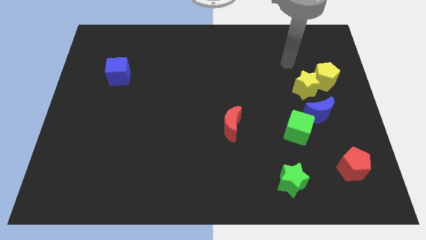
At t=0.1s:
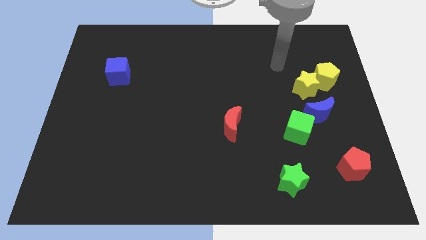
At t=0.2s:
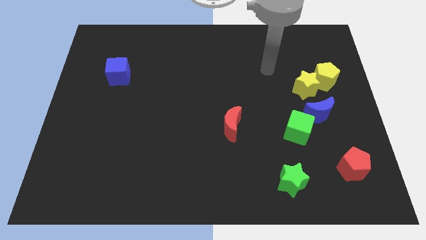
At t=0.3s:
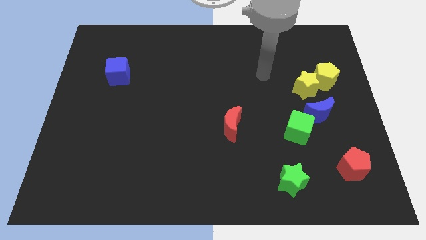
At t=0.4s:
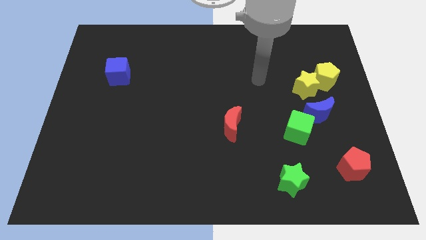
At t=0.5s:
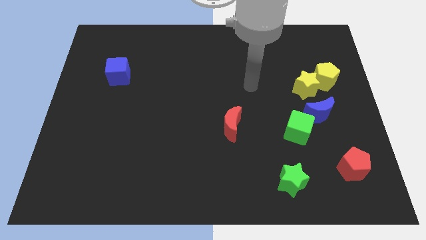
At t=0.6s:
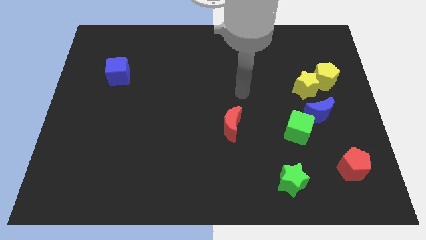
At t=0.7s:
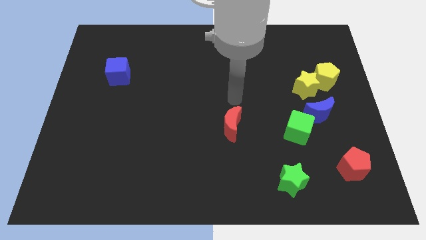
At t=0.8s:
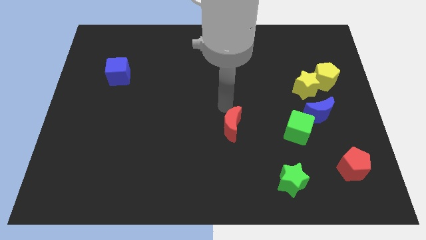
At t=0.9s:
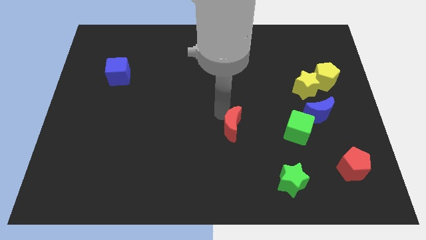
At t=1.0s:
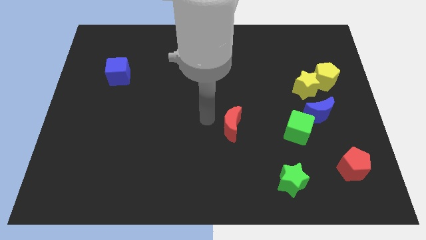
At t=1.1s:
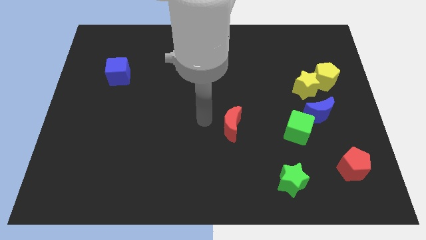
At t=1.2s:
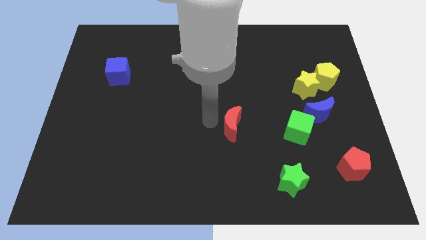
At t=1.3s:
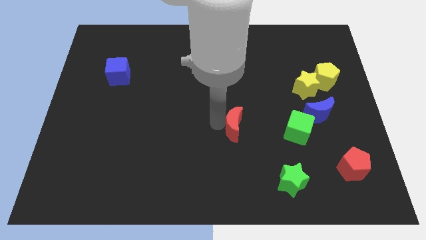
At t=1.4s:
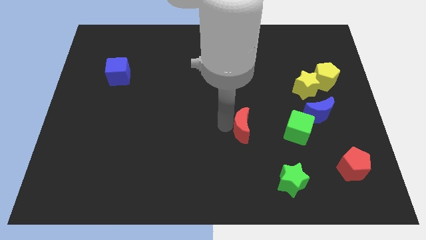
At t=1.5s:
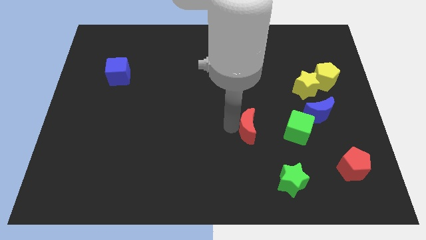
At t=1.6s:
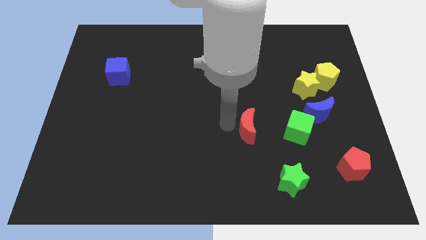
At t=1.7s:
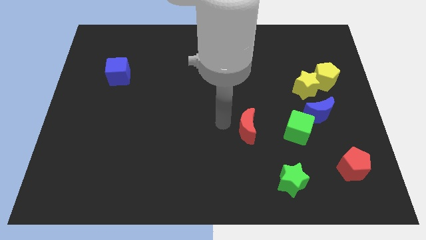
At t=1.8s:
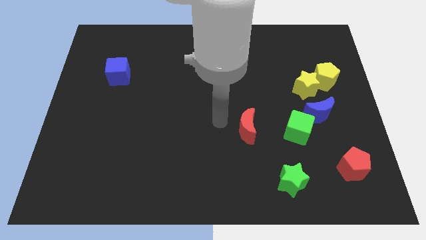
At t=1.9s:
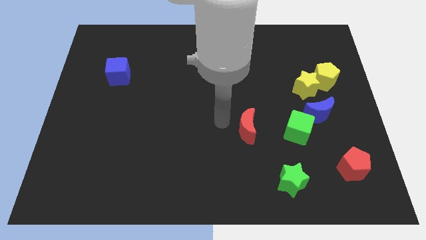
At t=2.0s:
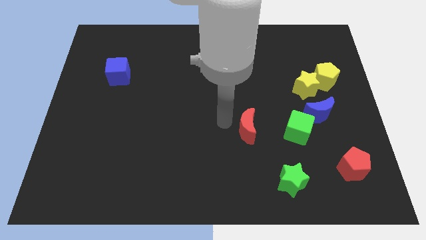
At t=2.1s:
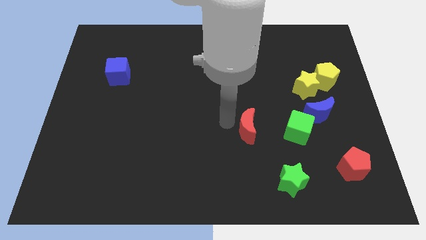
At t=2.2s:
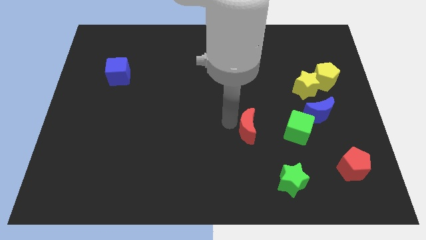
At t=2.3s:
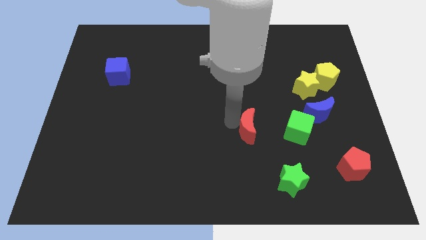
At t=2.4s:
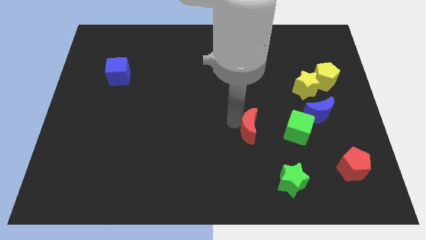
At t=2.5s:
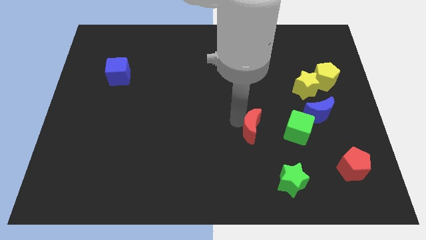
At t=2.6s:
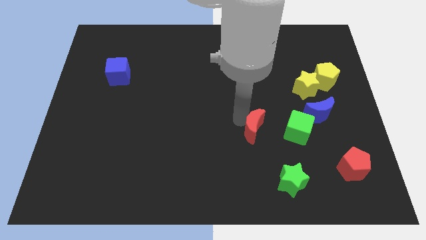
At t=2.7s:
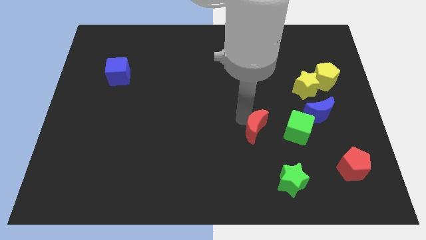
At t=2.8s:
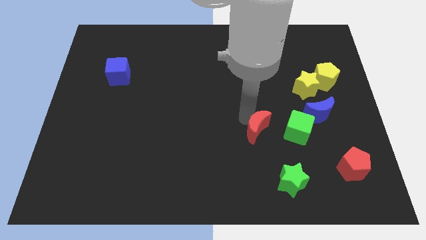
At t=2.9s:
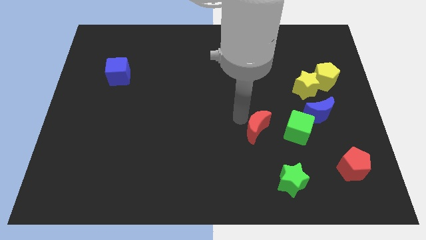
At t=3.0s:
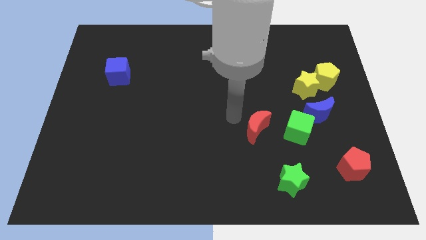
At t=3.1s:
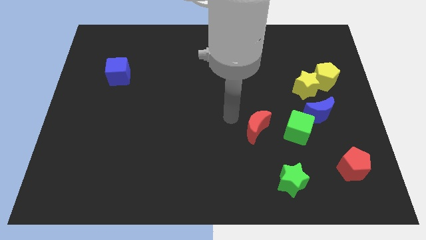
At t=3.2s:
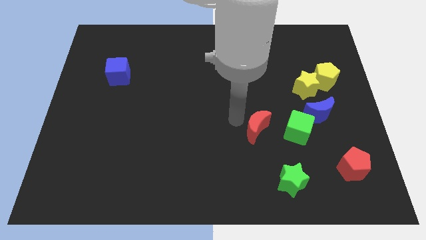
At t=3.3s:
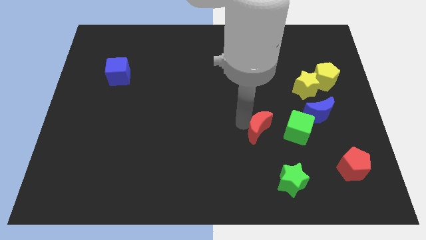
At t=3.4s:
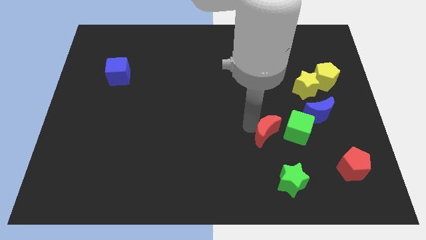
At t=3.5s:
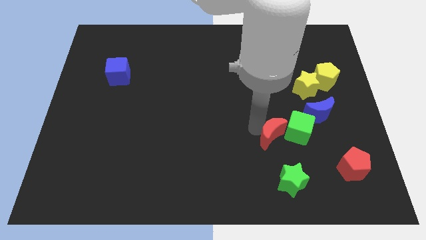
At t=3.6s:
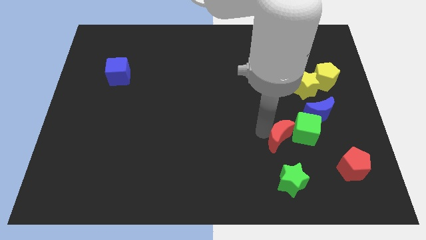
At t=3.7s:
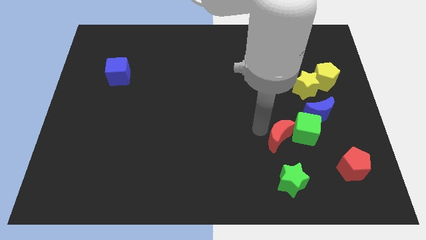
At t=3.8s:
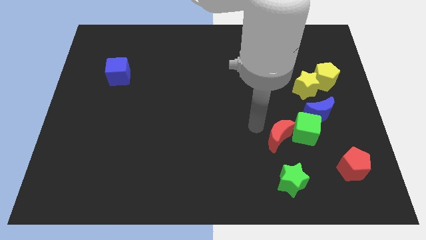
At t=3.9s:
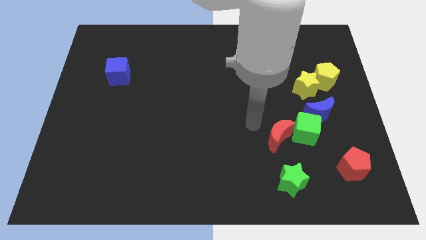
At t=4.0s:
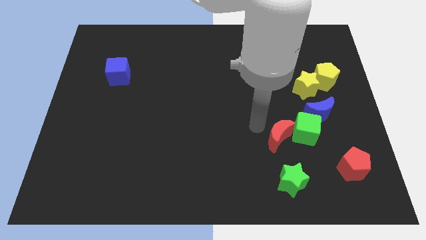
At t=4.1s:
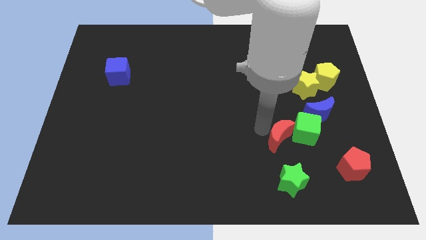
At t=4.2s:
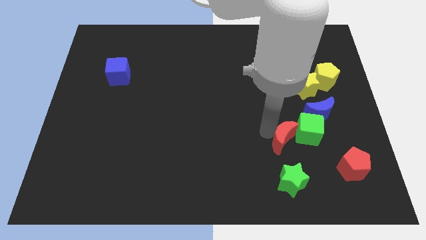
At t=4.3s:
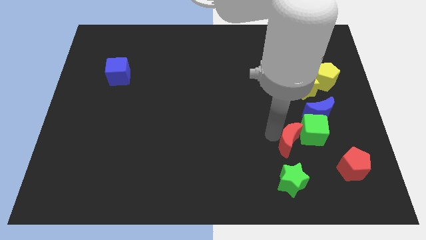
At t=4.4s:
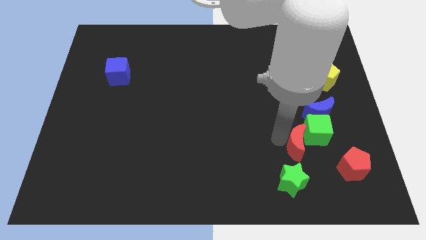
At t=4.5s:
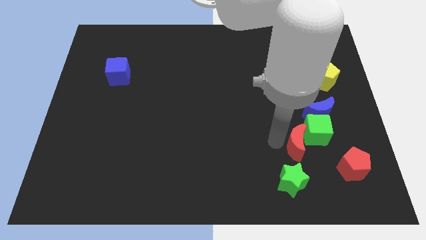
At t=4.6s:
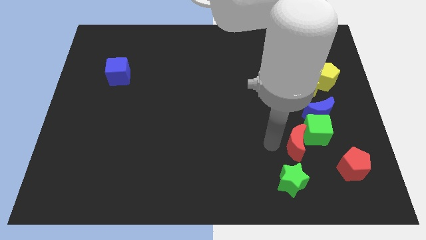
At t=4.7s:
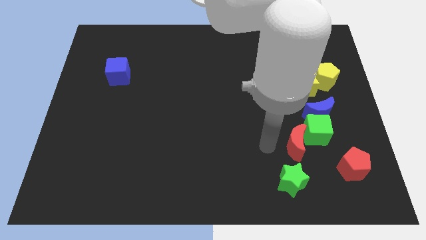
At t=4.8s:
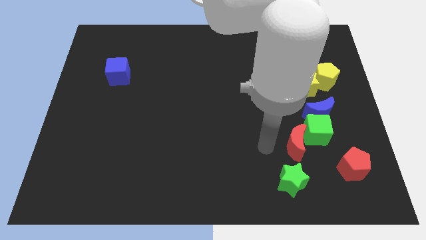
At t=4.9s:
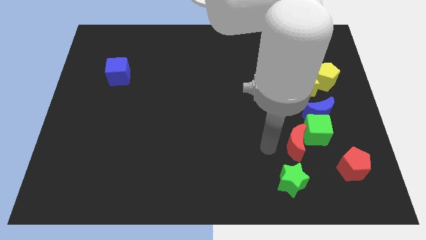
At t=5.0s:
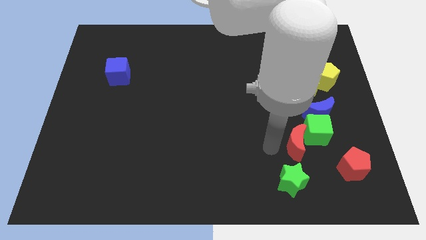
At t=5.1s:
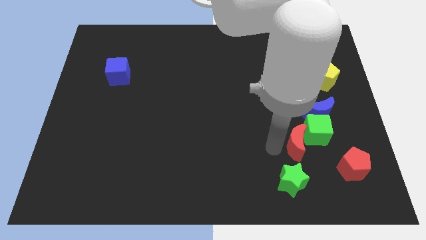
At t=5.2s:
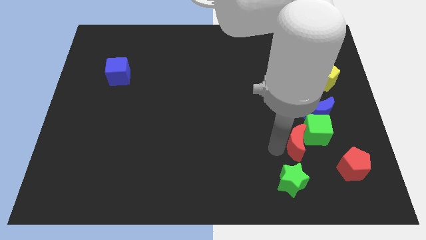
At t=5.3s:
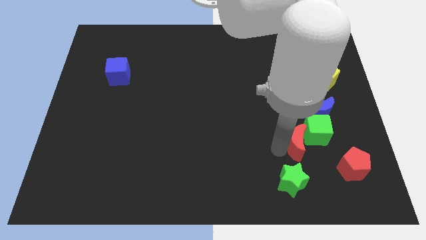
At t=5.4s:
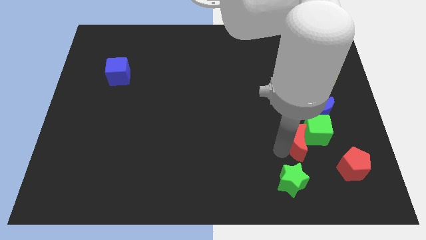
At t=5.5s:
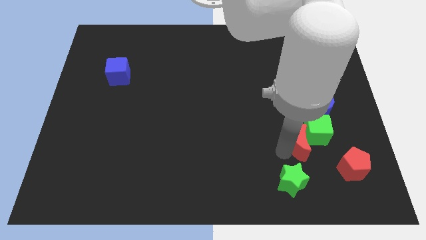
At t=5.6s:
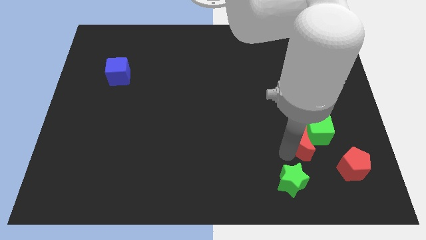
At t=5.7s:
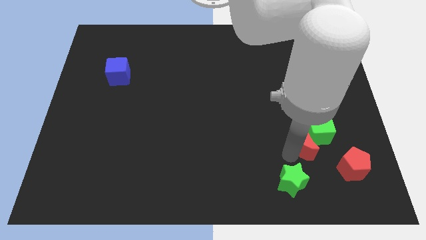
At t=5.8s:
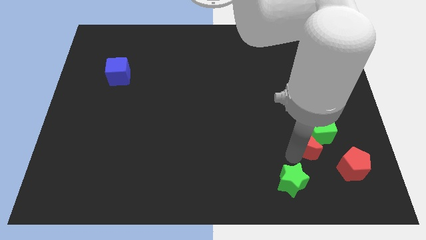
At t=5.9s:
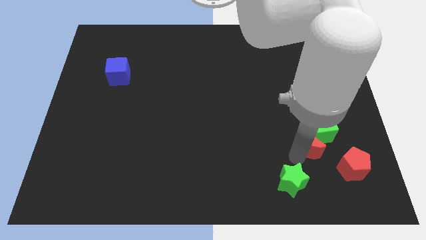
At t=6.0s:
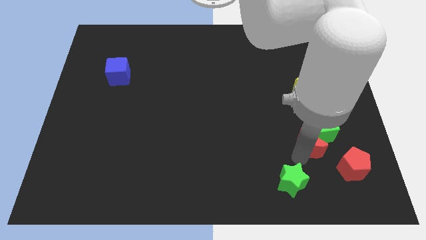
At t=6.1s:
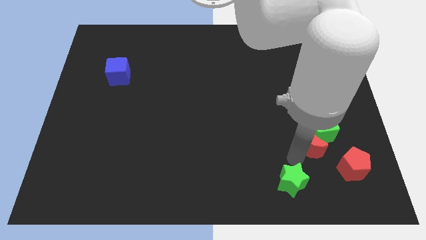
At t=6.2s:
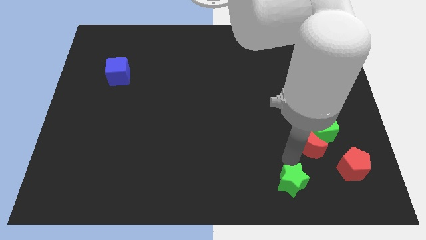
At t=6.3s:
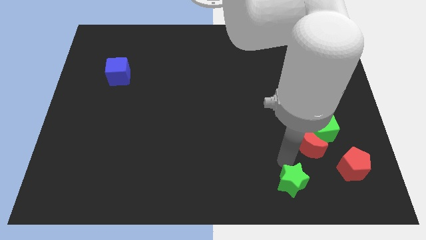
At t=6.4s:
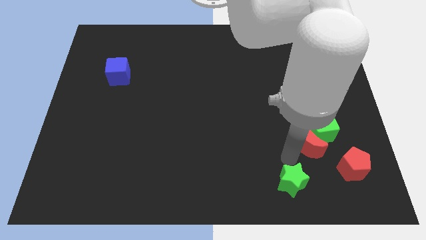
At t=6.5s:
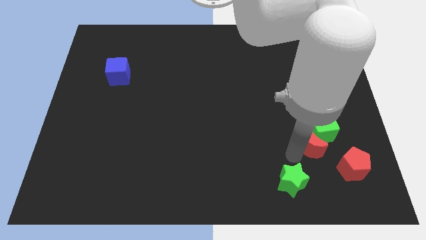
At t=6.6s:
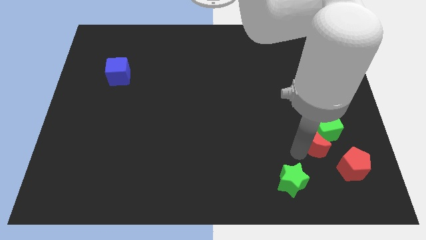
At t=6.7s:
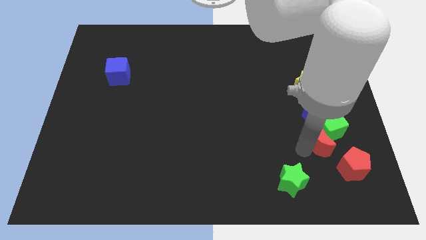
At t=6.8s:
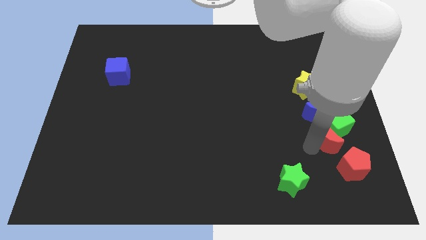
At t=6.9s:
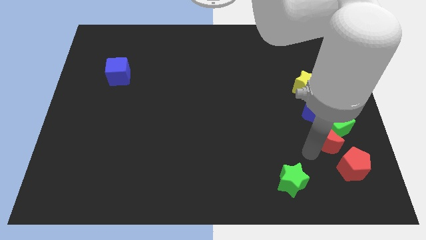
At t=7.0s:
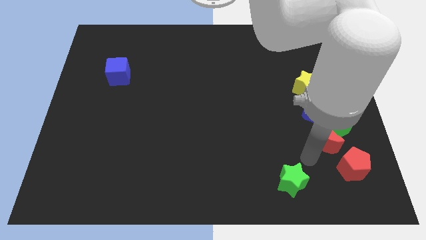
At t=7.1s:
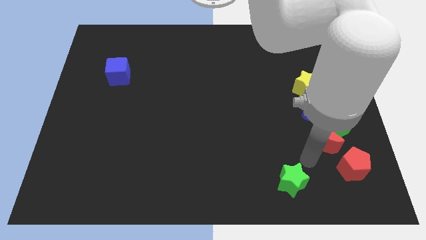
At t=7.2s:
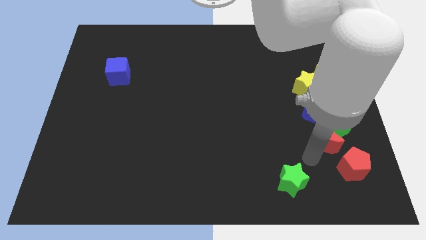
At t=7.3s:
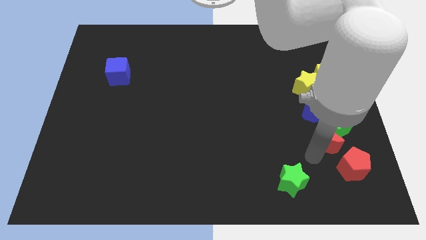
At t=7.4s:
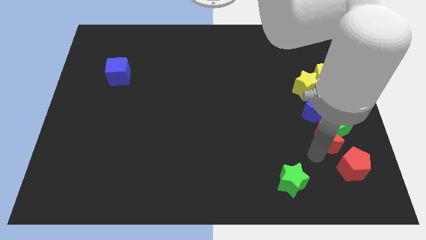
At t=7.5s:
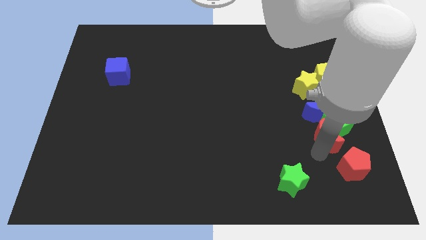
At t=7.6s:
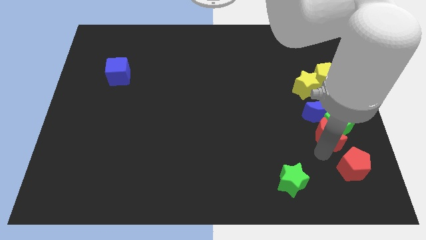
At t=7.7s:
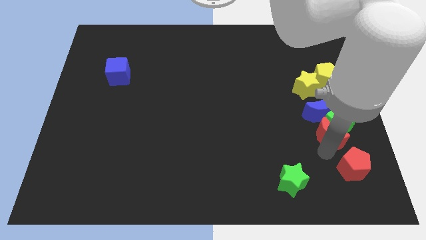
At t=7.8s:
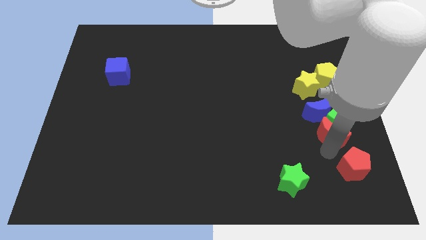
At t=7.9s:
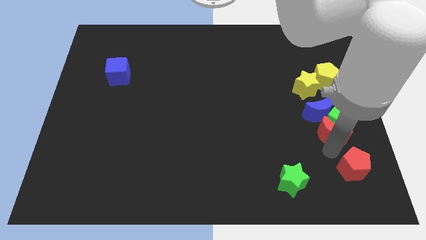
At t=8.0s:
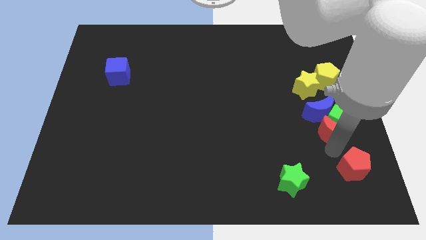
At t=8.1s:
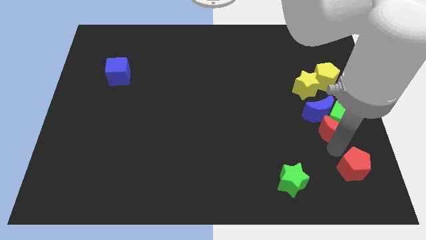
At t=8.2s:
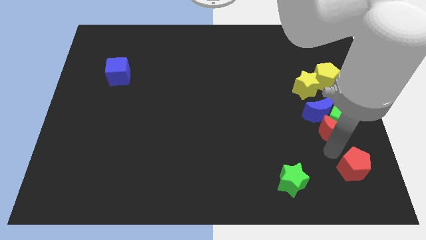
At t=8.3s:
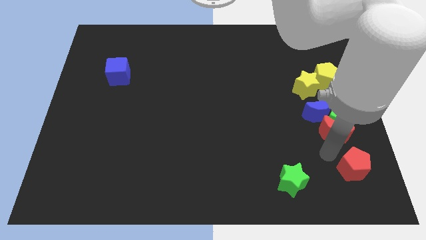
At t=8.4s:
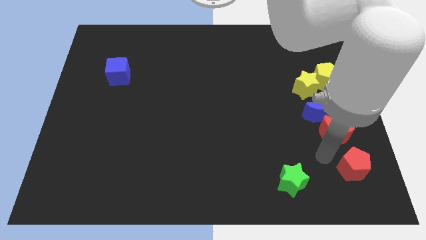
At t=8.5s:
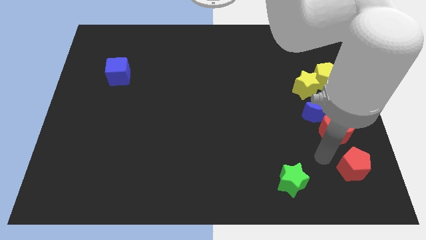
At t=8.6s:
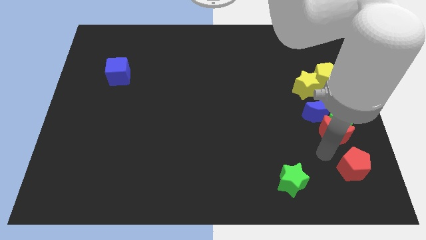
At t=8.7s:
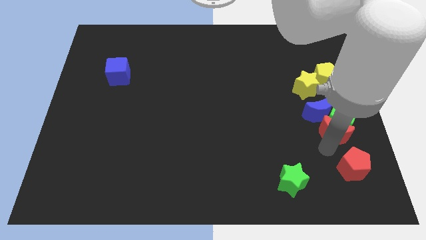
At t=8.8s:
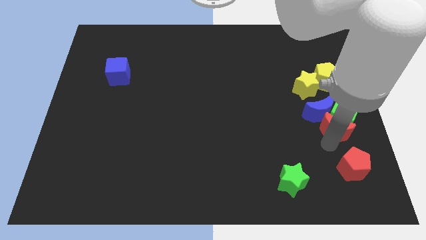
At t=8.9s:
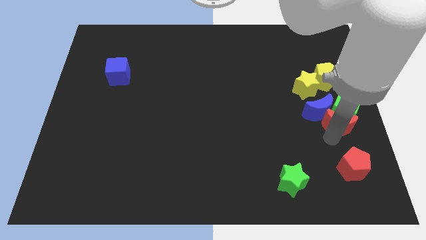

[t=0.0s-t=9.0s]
put the red moon to the right side
